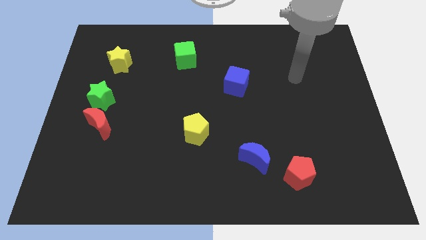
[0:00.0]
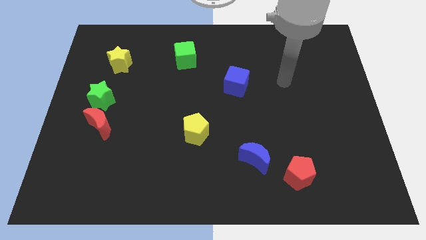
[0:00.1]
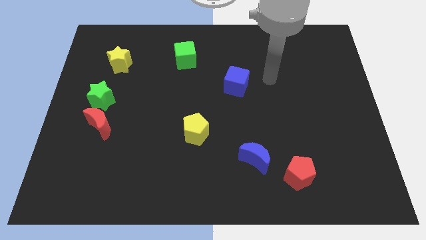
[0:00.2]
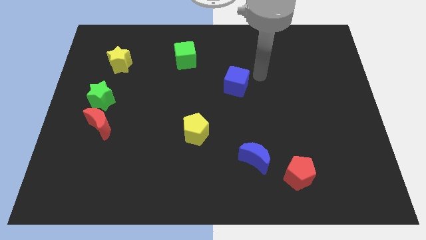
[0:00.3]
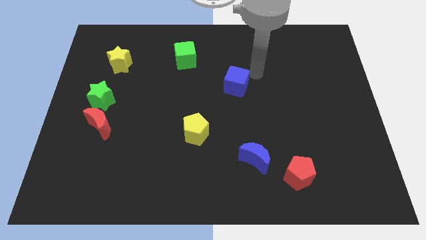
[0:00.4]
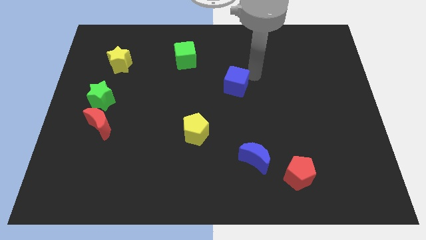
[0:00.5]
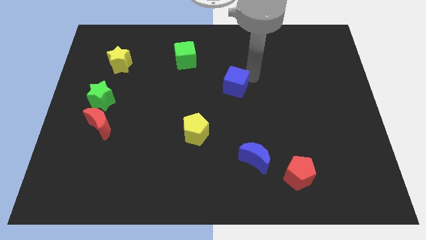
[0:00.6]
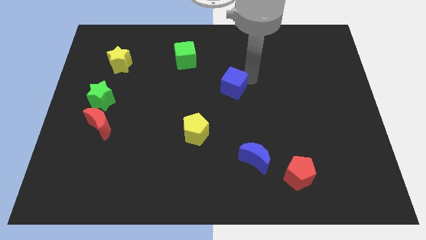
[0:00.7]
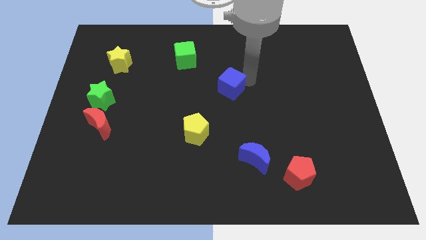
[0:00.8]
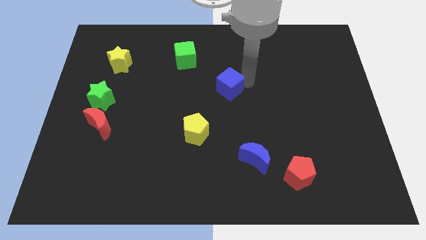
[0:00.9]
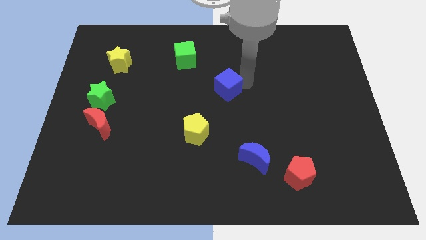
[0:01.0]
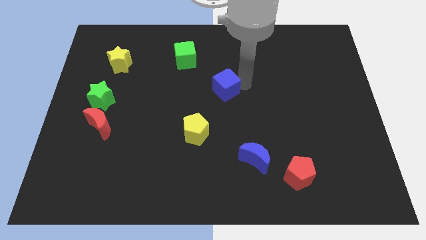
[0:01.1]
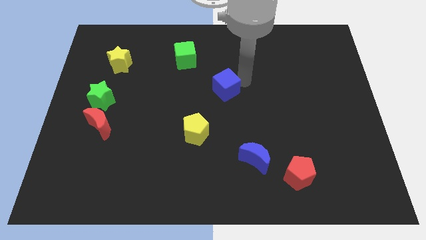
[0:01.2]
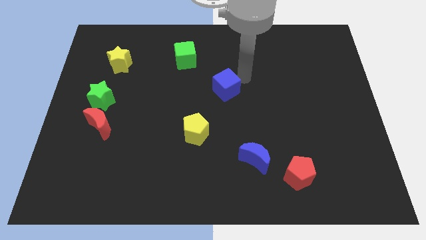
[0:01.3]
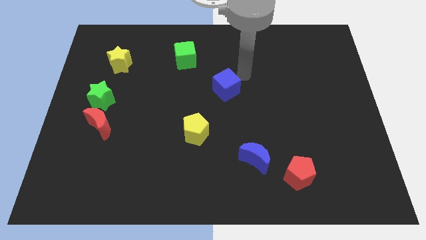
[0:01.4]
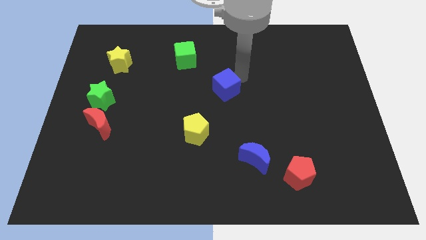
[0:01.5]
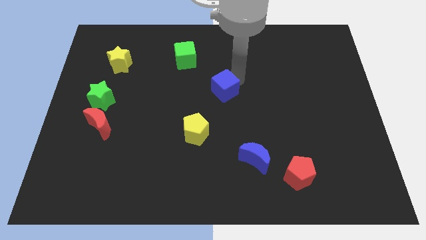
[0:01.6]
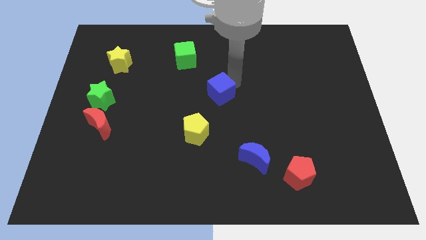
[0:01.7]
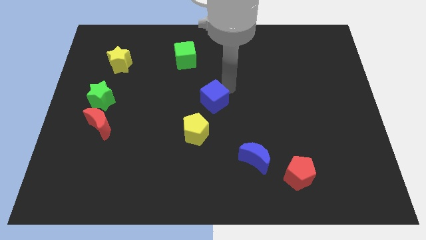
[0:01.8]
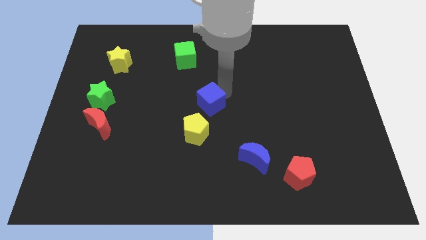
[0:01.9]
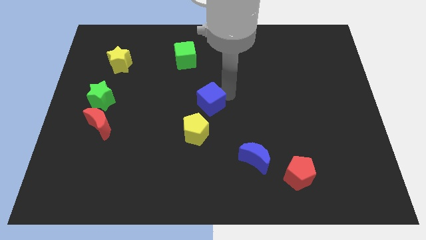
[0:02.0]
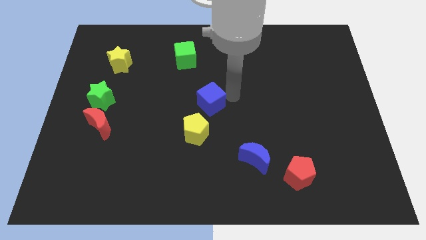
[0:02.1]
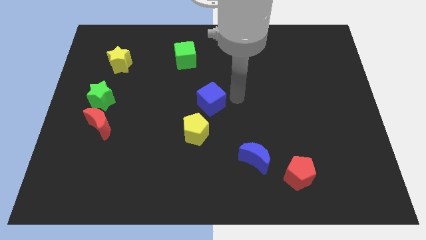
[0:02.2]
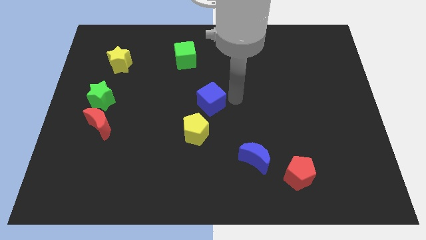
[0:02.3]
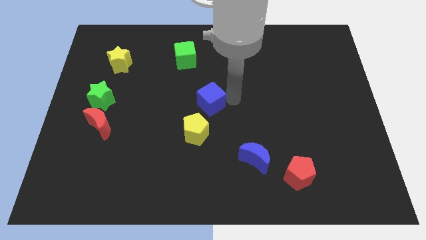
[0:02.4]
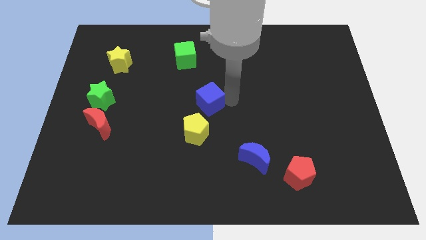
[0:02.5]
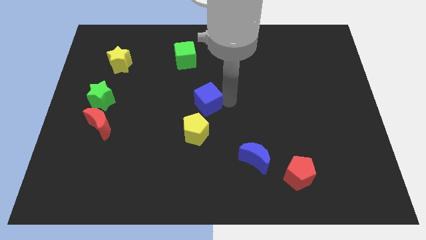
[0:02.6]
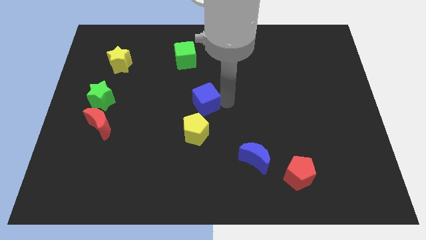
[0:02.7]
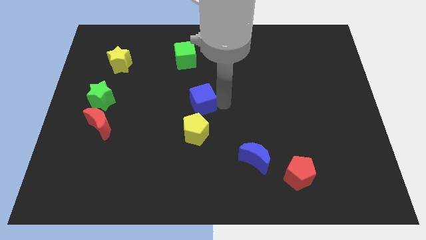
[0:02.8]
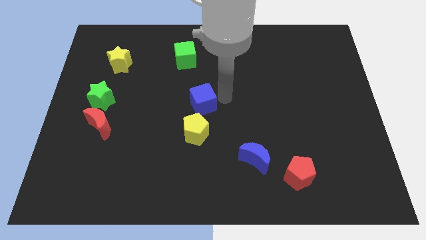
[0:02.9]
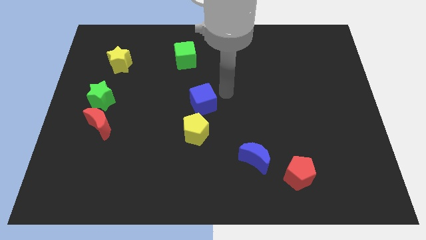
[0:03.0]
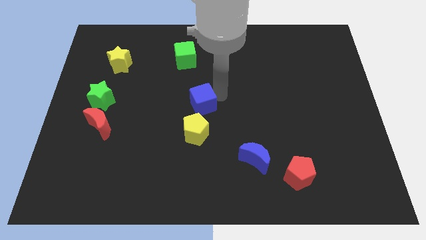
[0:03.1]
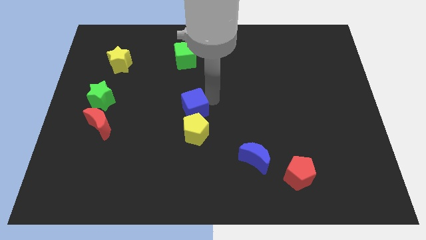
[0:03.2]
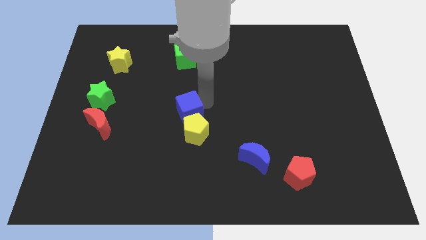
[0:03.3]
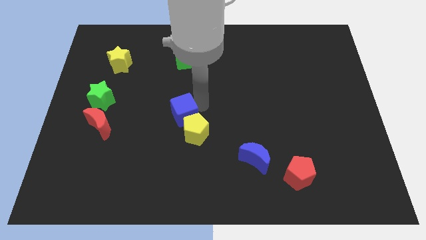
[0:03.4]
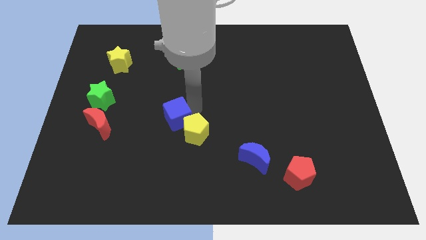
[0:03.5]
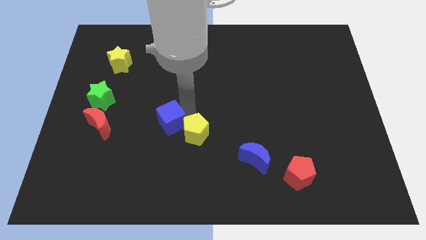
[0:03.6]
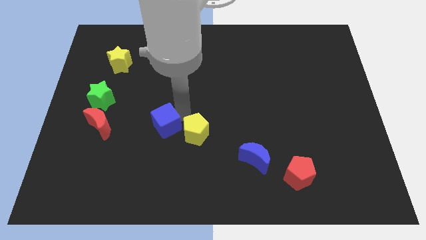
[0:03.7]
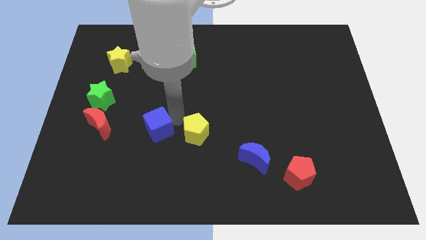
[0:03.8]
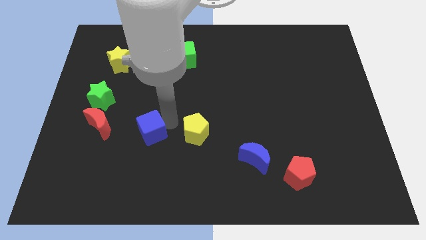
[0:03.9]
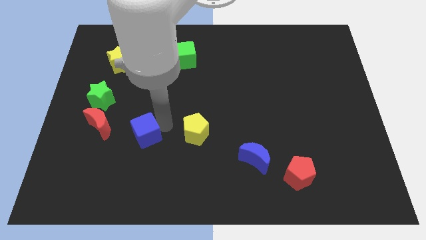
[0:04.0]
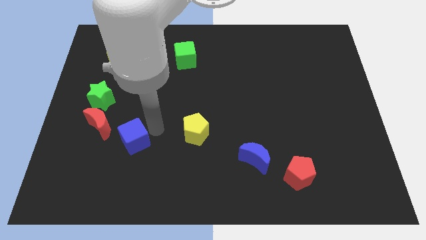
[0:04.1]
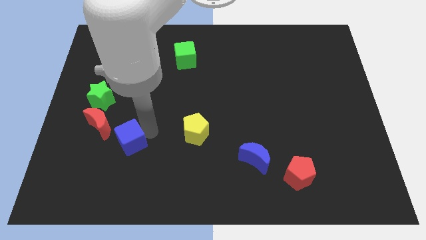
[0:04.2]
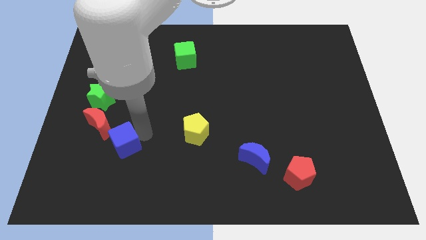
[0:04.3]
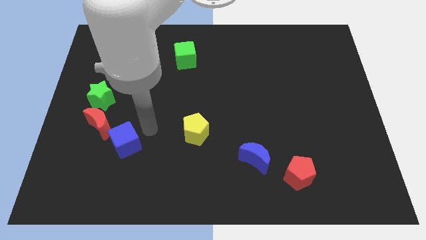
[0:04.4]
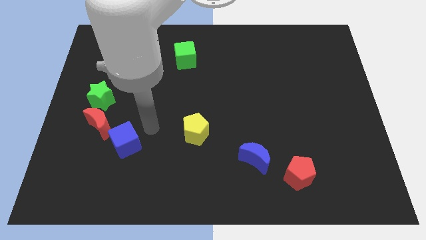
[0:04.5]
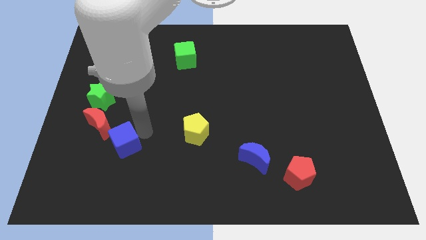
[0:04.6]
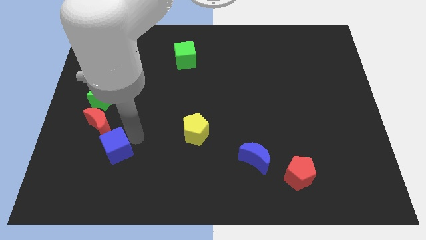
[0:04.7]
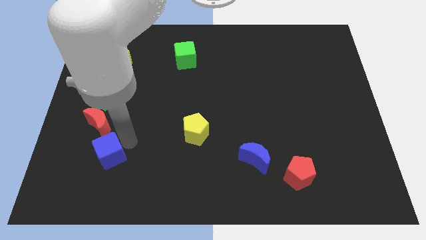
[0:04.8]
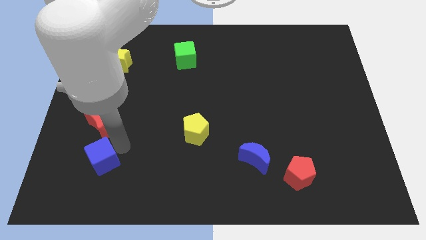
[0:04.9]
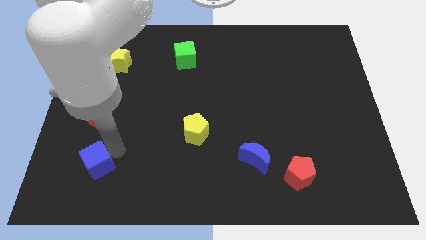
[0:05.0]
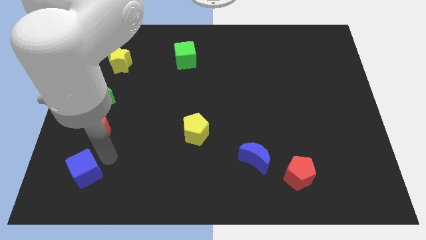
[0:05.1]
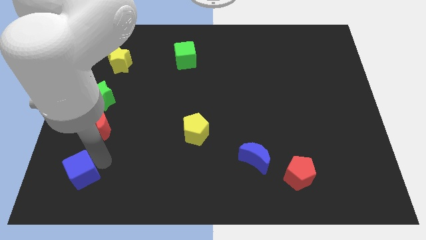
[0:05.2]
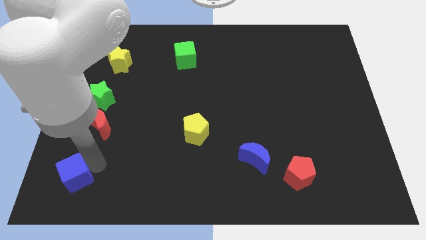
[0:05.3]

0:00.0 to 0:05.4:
push the blue cube to the bottom left of the board

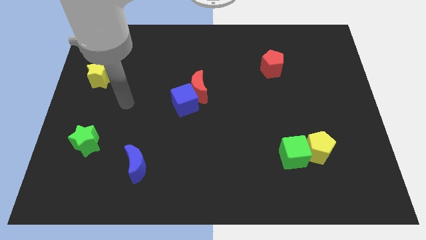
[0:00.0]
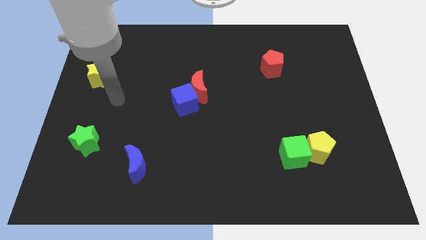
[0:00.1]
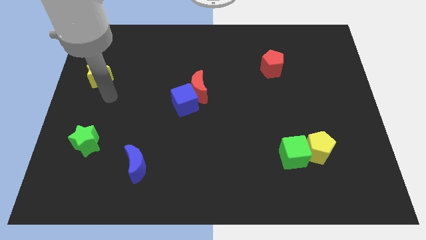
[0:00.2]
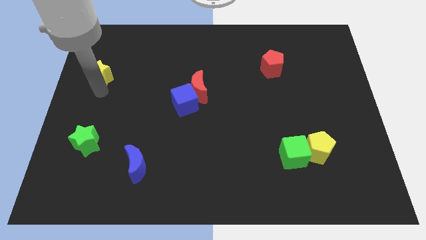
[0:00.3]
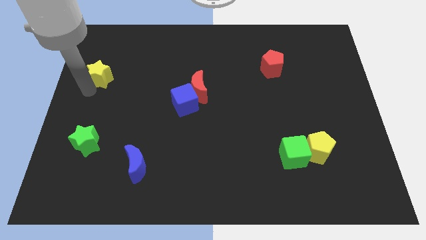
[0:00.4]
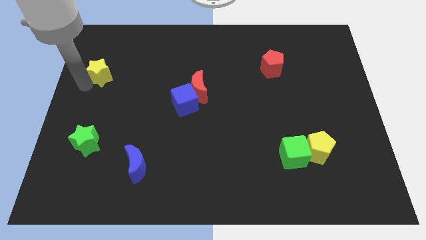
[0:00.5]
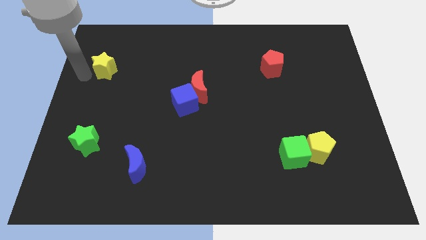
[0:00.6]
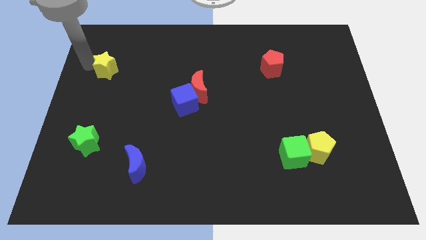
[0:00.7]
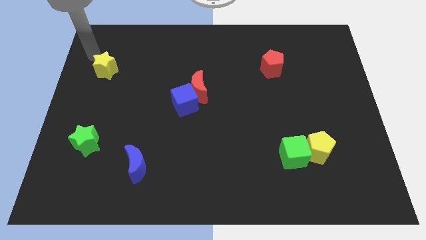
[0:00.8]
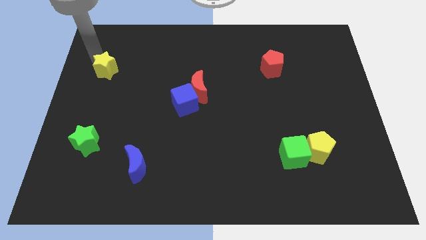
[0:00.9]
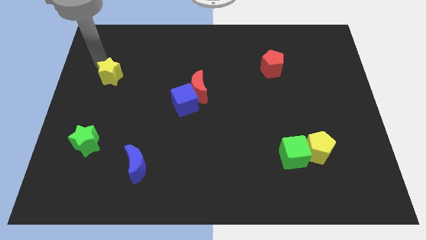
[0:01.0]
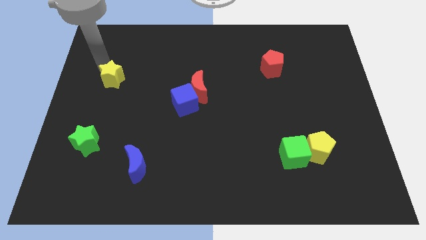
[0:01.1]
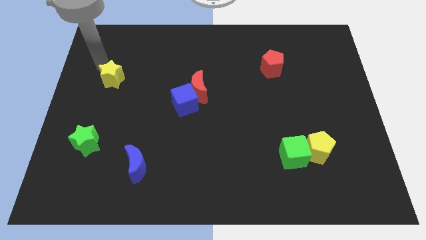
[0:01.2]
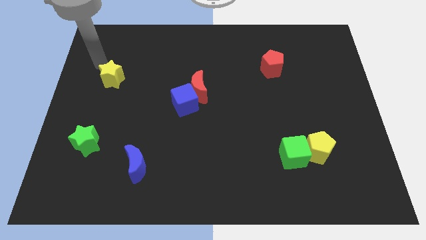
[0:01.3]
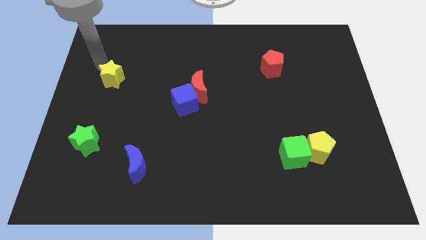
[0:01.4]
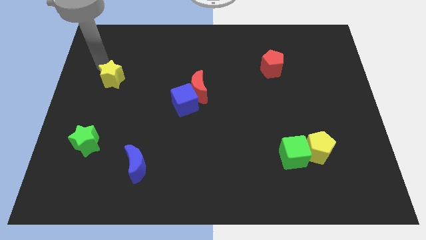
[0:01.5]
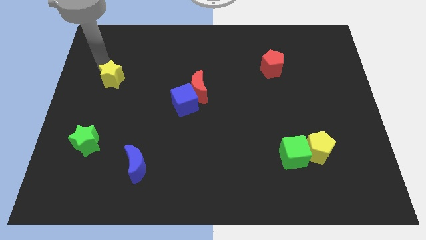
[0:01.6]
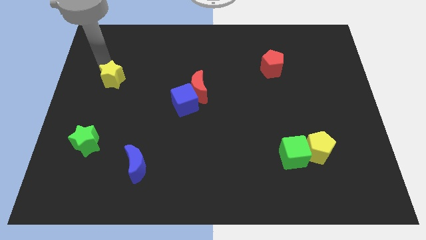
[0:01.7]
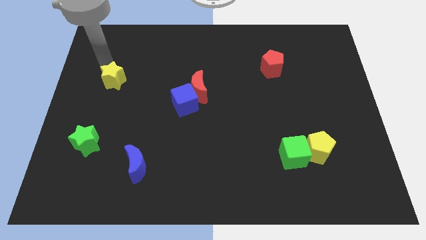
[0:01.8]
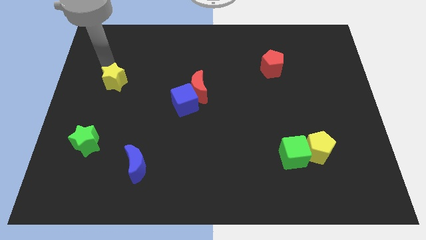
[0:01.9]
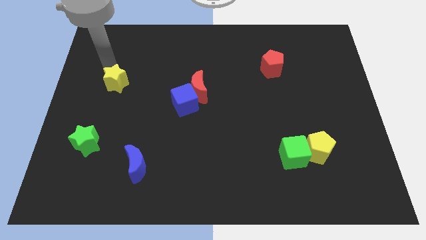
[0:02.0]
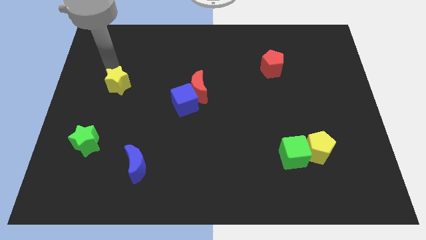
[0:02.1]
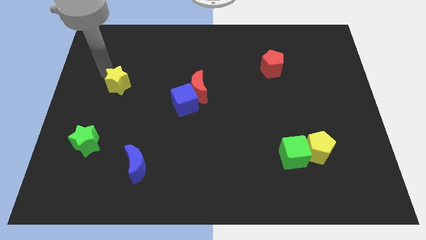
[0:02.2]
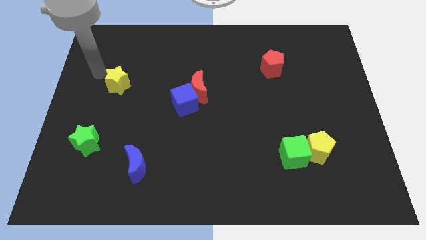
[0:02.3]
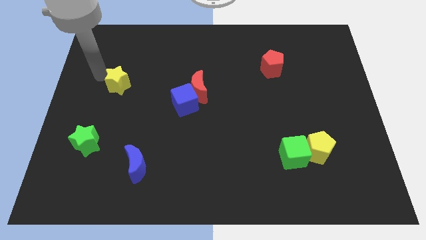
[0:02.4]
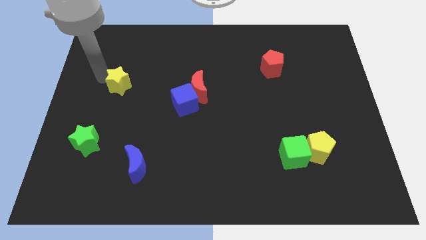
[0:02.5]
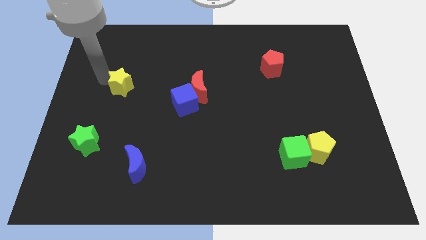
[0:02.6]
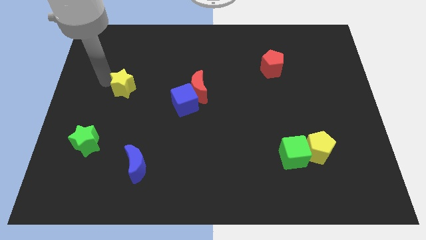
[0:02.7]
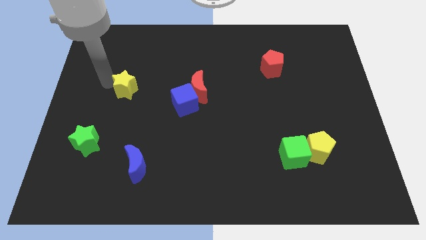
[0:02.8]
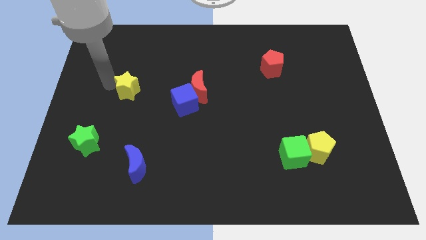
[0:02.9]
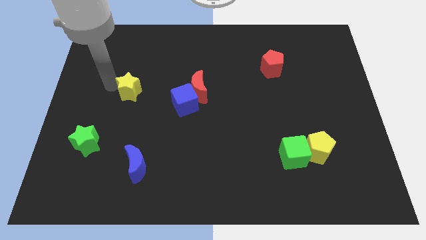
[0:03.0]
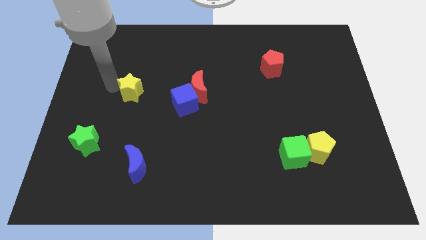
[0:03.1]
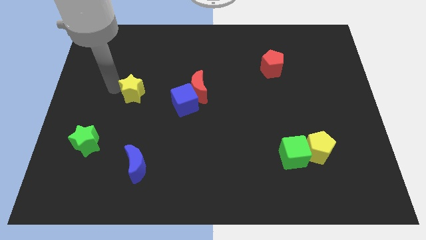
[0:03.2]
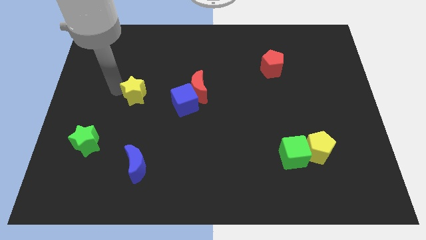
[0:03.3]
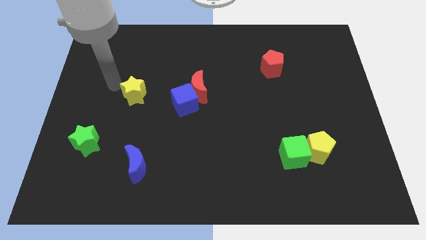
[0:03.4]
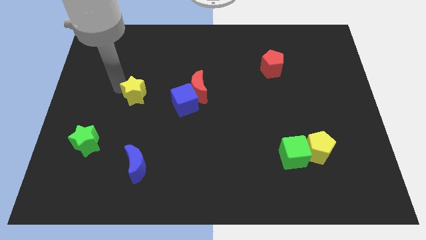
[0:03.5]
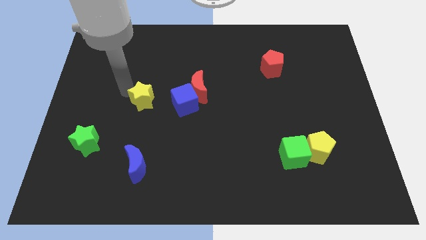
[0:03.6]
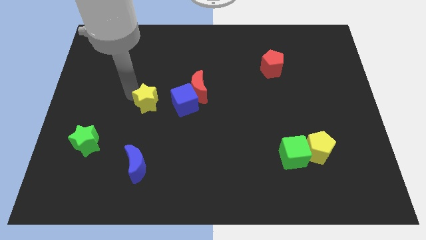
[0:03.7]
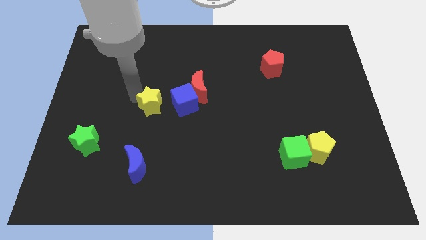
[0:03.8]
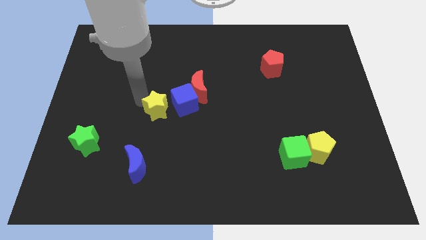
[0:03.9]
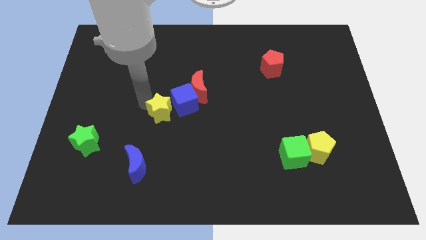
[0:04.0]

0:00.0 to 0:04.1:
put the yellow star to the center
